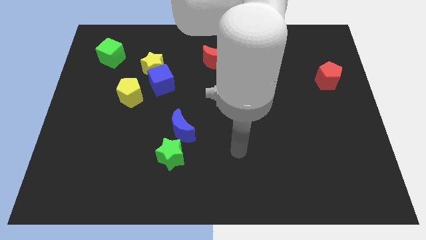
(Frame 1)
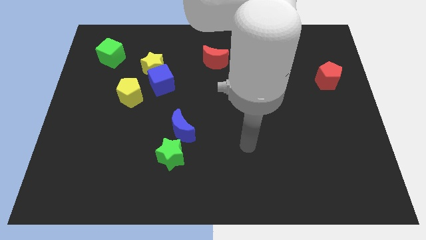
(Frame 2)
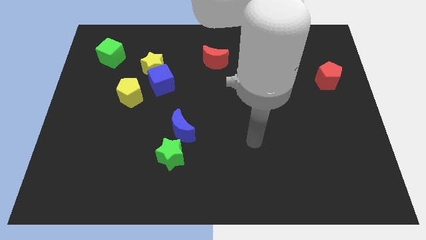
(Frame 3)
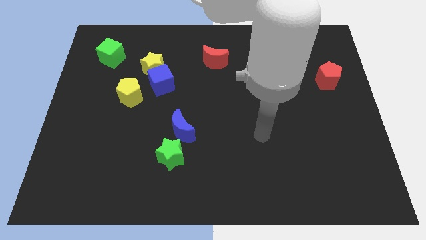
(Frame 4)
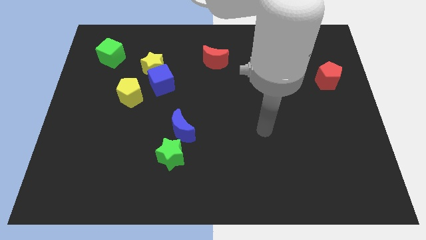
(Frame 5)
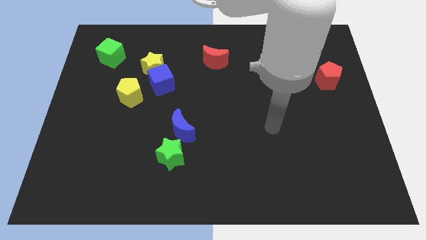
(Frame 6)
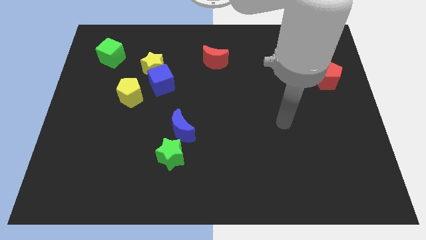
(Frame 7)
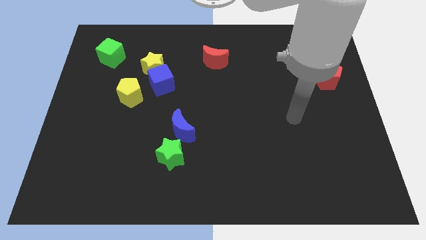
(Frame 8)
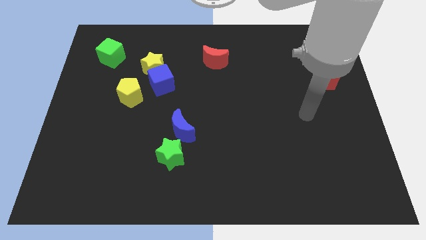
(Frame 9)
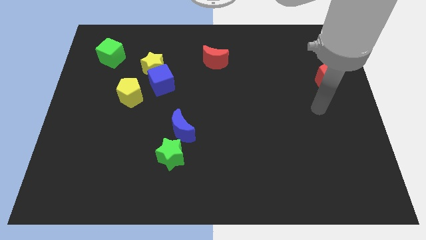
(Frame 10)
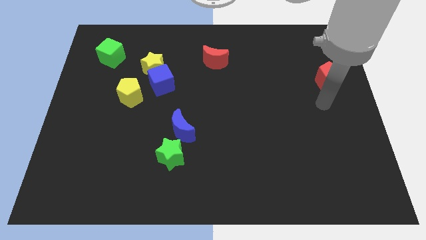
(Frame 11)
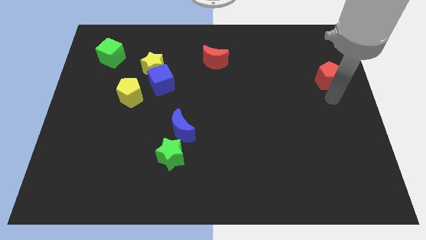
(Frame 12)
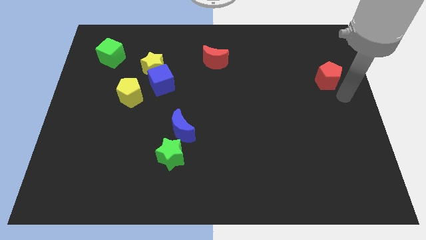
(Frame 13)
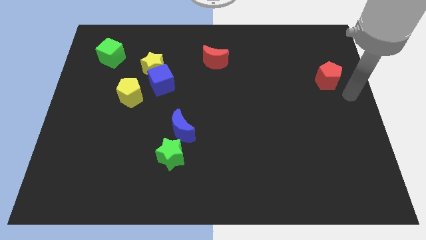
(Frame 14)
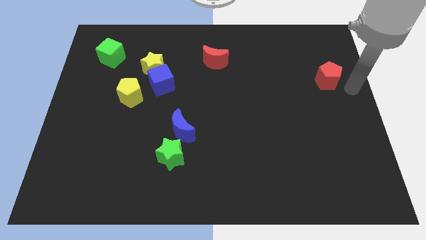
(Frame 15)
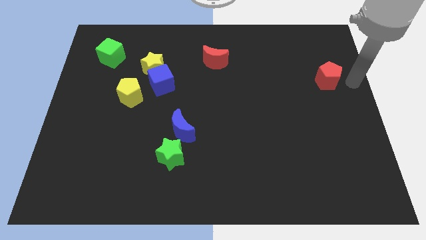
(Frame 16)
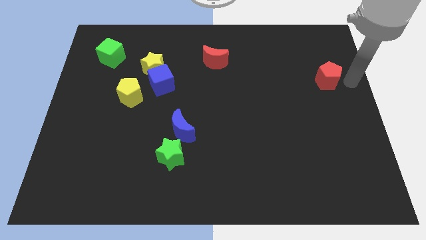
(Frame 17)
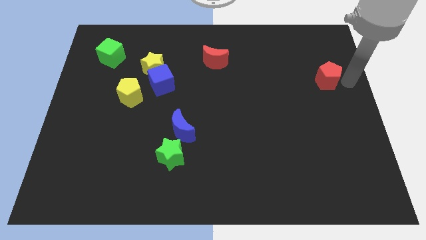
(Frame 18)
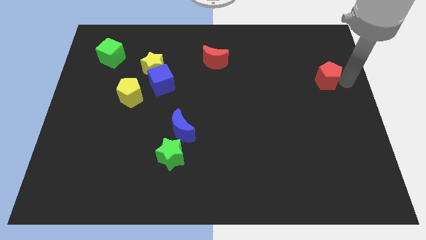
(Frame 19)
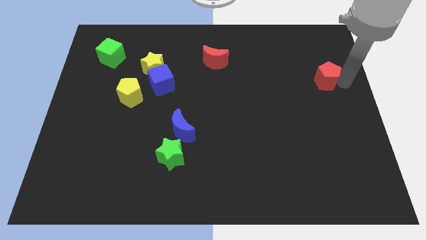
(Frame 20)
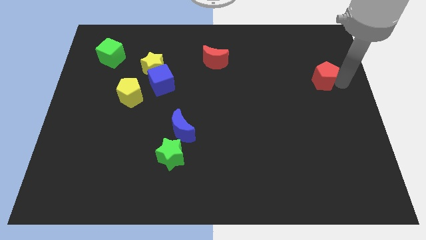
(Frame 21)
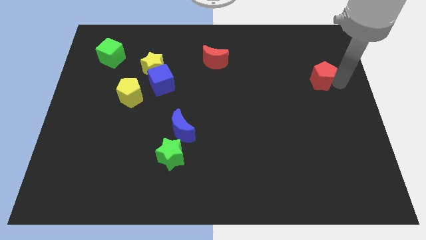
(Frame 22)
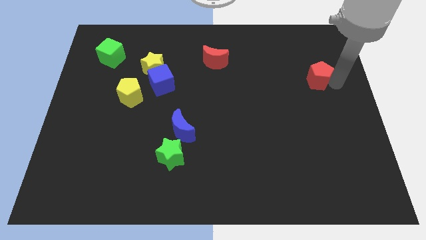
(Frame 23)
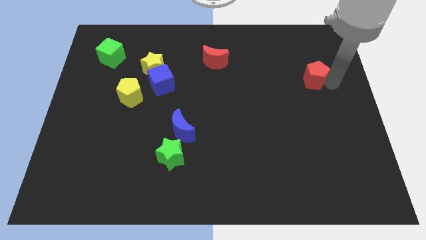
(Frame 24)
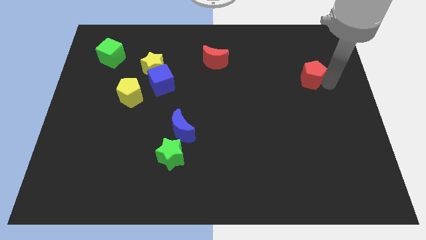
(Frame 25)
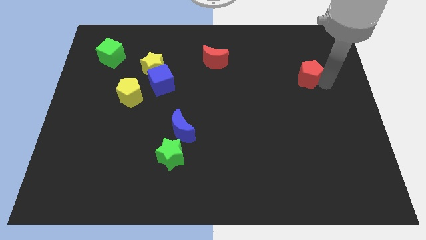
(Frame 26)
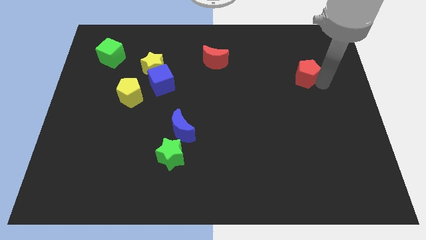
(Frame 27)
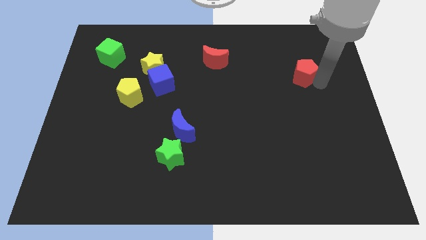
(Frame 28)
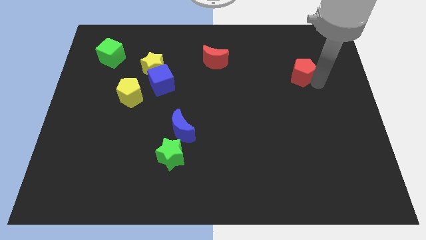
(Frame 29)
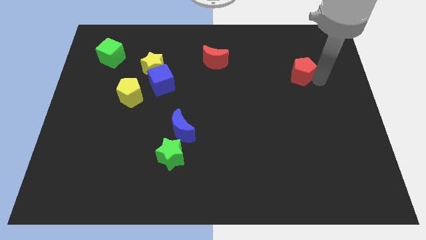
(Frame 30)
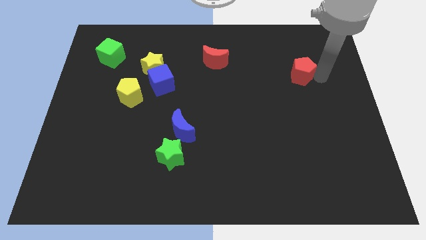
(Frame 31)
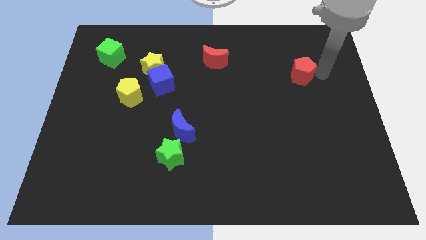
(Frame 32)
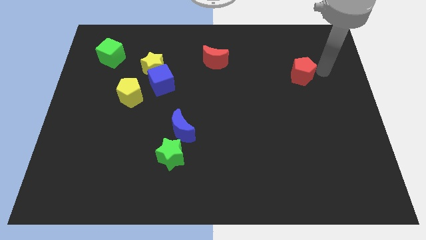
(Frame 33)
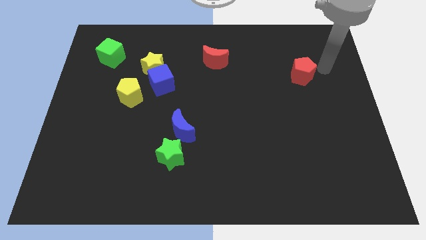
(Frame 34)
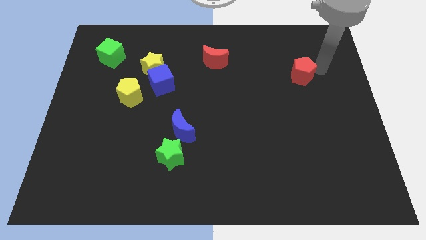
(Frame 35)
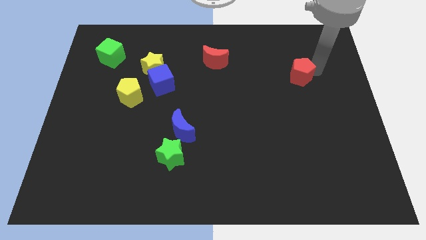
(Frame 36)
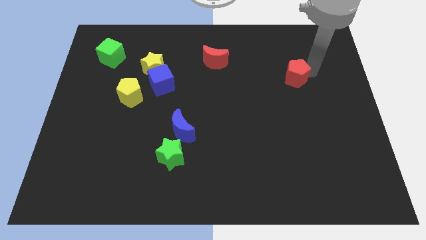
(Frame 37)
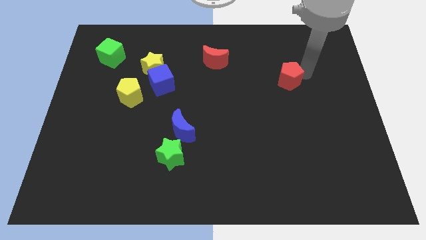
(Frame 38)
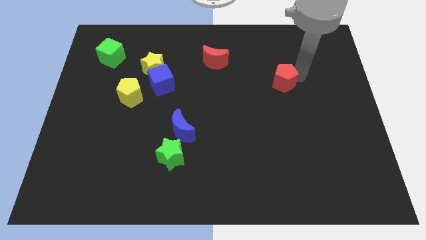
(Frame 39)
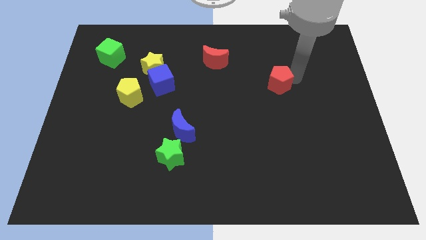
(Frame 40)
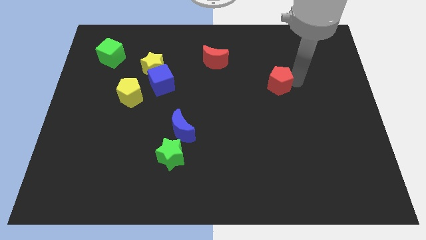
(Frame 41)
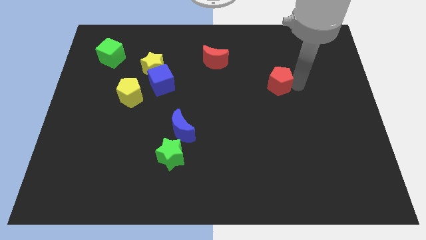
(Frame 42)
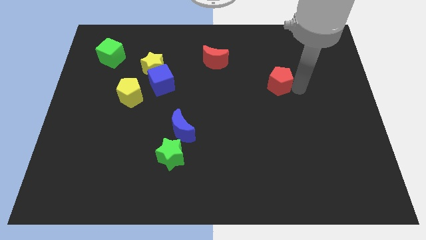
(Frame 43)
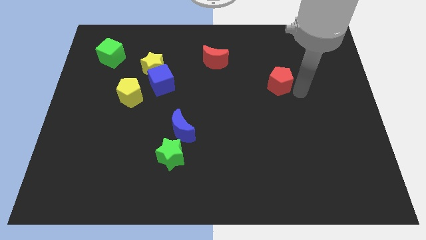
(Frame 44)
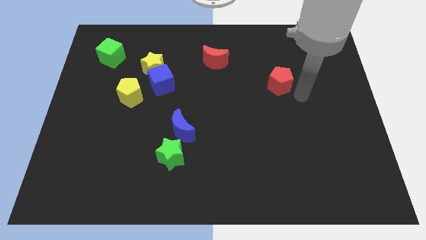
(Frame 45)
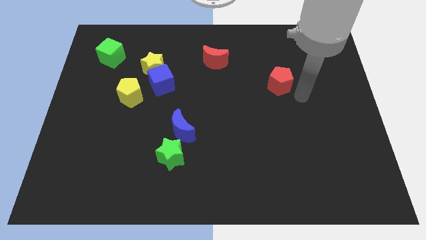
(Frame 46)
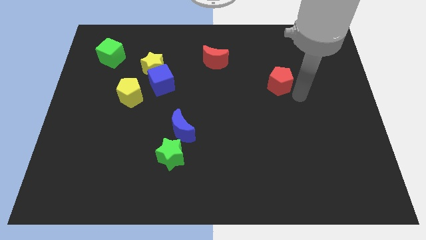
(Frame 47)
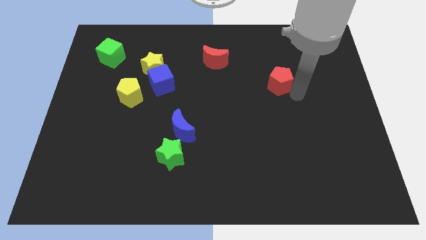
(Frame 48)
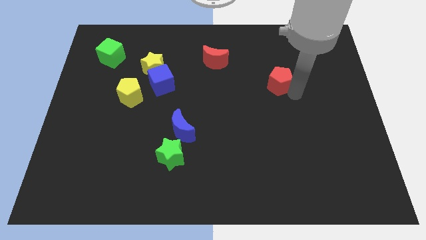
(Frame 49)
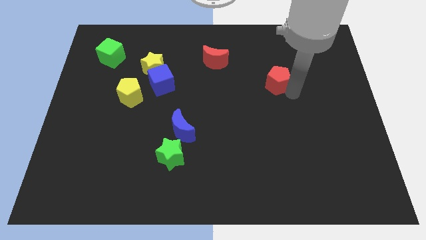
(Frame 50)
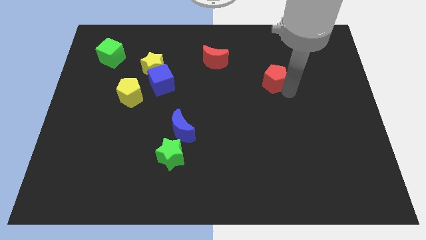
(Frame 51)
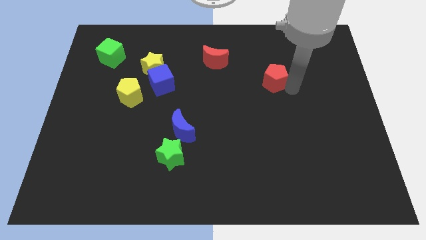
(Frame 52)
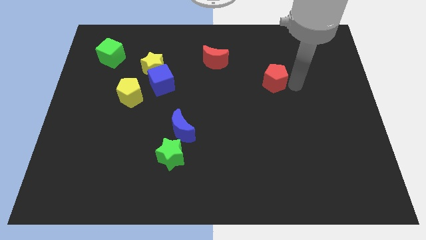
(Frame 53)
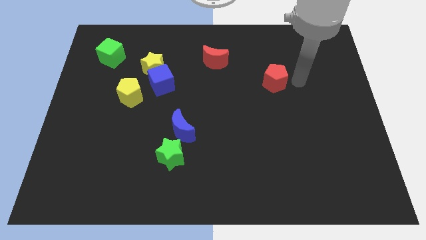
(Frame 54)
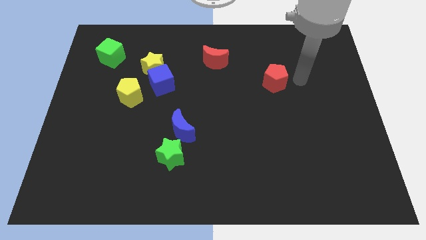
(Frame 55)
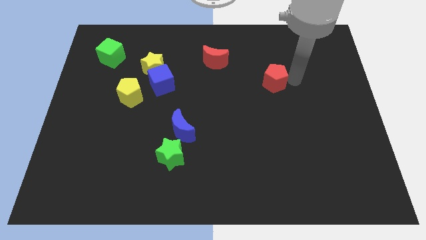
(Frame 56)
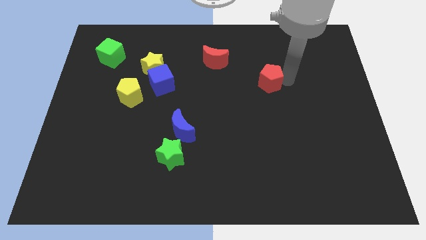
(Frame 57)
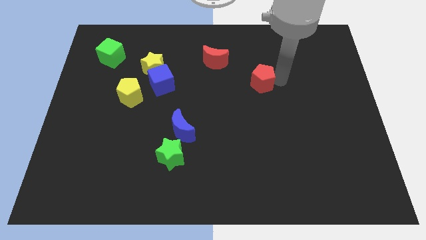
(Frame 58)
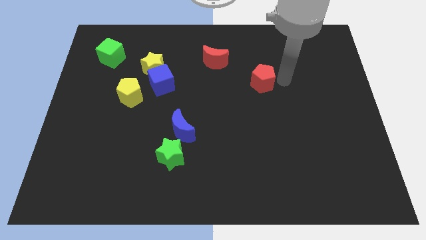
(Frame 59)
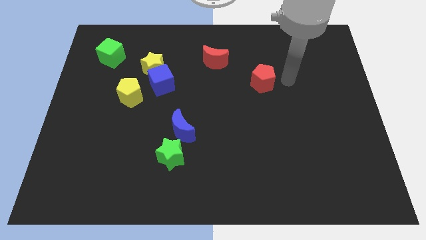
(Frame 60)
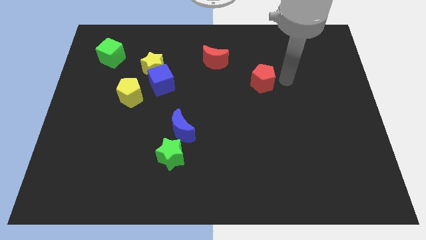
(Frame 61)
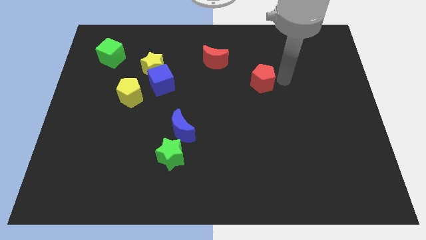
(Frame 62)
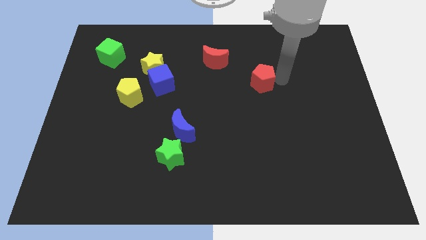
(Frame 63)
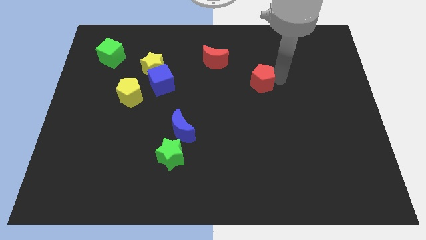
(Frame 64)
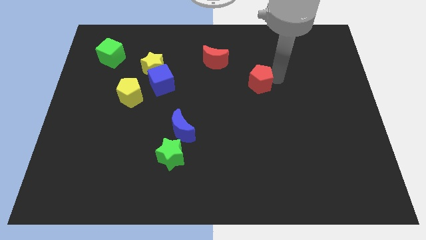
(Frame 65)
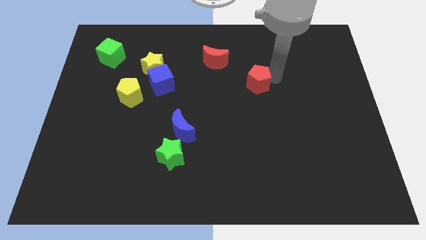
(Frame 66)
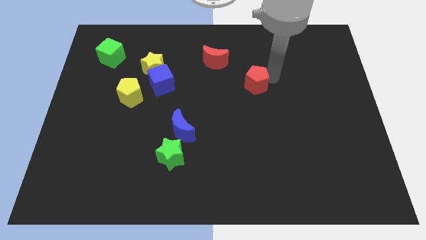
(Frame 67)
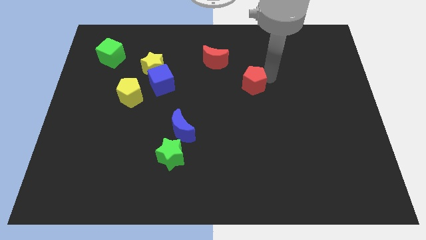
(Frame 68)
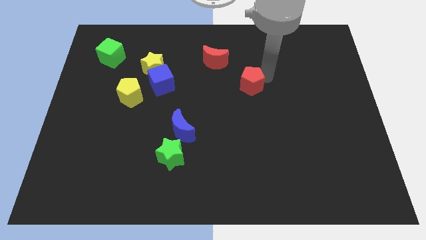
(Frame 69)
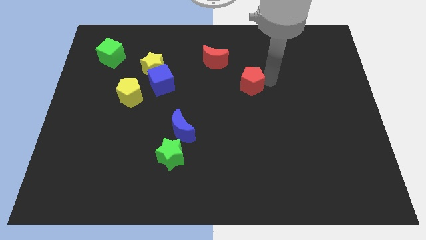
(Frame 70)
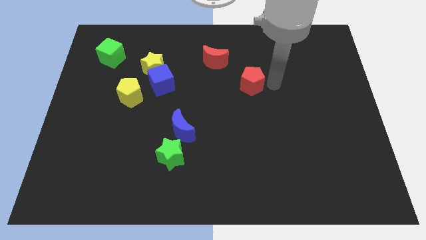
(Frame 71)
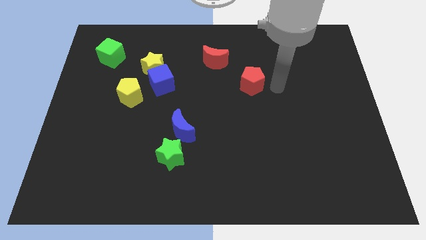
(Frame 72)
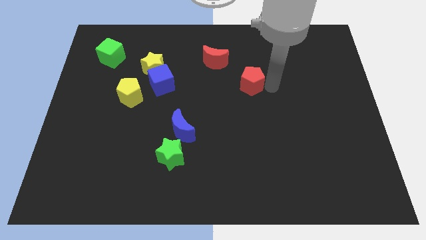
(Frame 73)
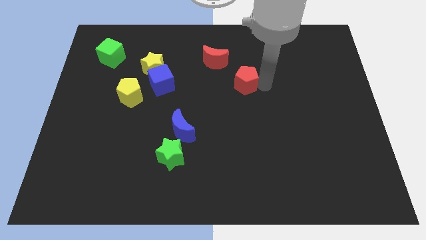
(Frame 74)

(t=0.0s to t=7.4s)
push the red pentagon to the left

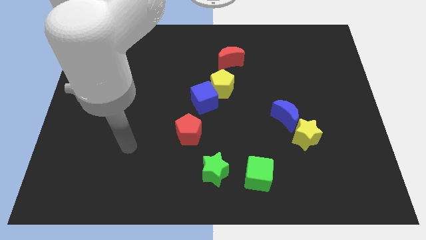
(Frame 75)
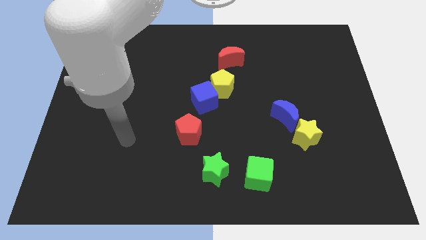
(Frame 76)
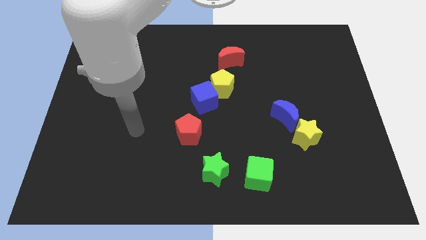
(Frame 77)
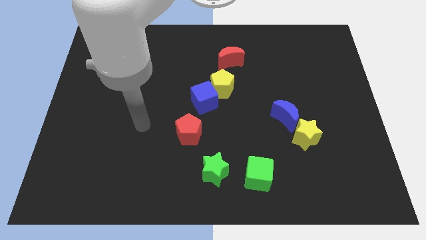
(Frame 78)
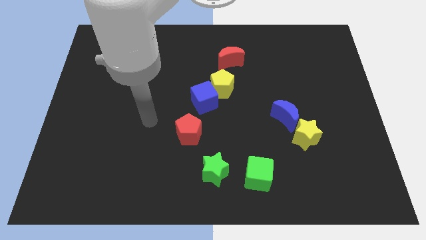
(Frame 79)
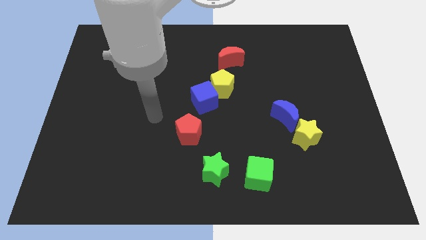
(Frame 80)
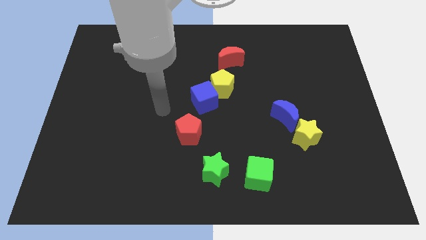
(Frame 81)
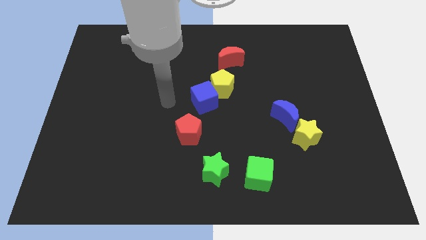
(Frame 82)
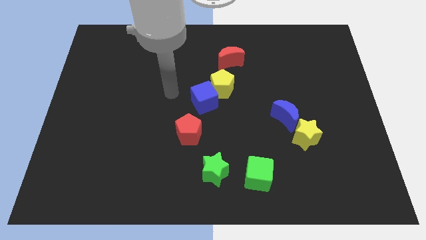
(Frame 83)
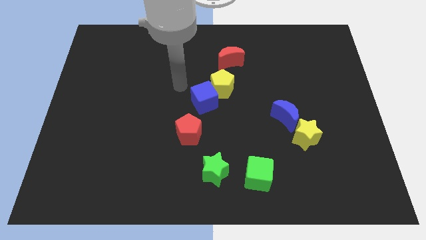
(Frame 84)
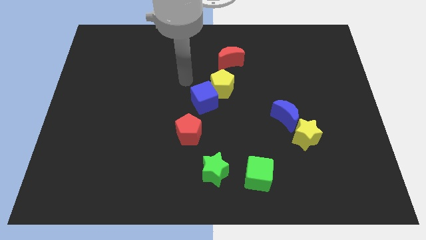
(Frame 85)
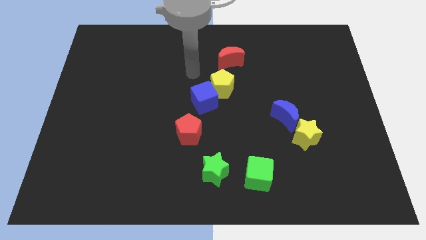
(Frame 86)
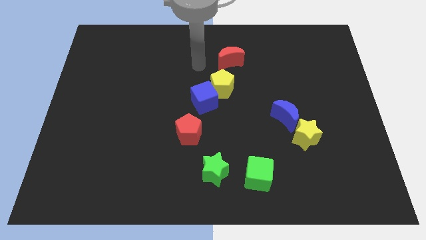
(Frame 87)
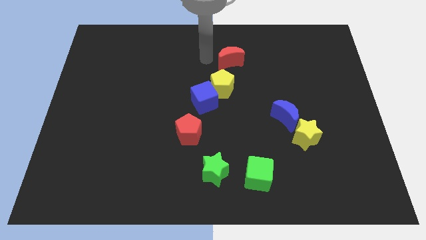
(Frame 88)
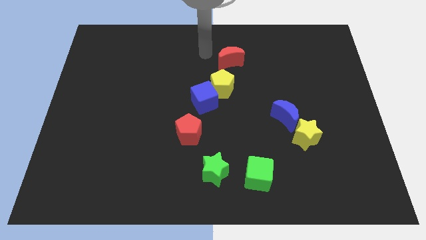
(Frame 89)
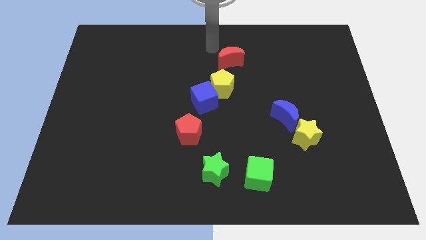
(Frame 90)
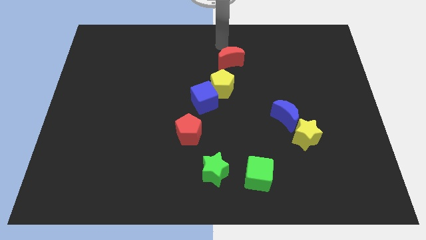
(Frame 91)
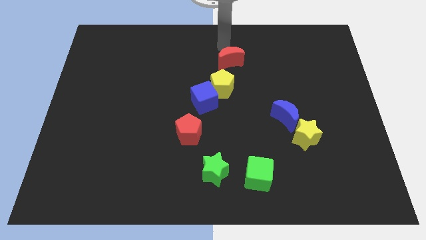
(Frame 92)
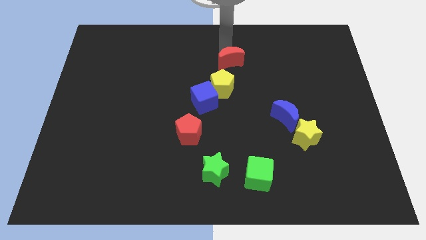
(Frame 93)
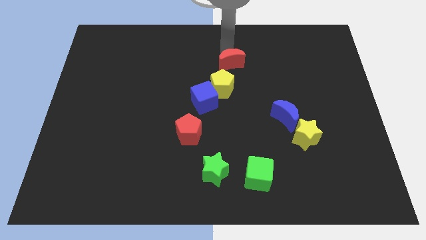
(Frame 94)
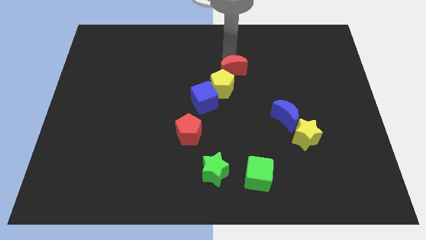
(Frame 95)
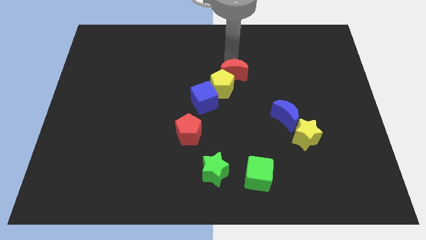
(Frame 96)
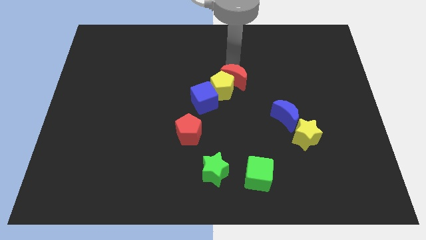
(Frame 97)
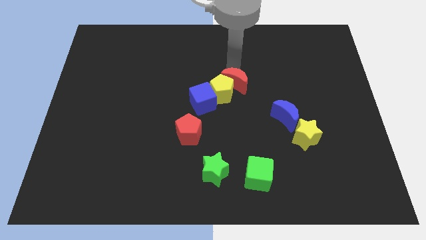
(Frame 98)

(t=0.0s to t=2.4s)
push the red moon downwards a little bit
